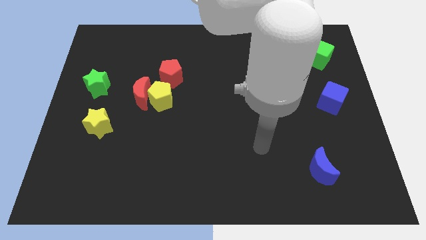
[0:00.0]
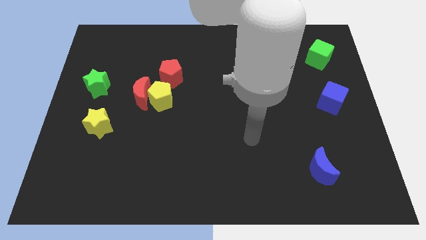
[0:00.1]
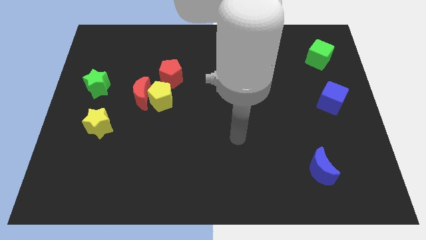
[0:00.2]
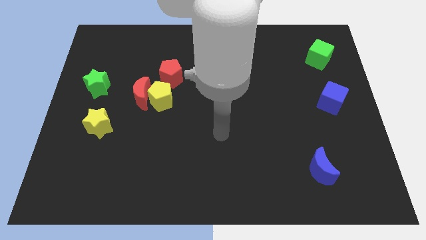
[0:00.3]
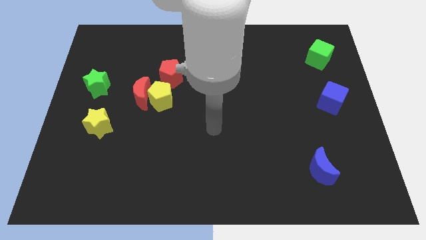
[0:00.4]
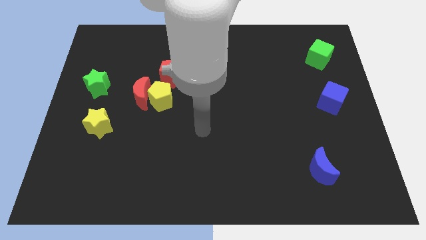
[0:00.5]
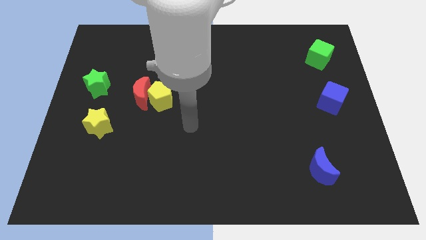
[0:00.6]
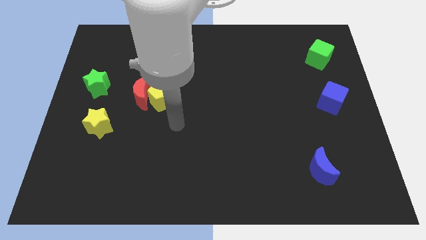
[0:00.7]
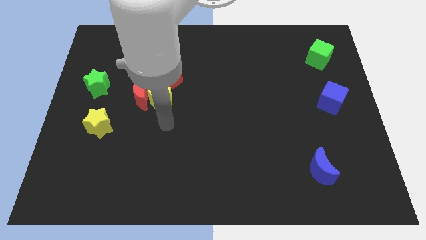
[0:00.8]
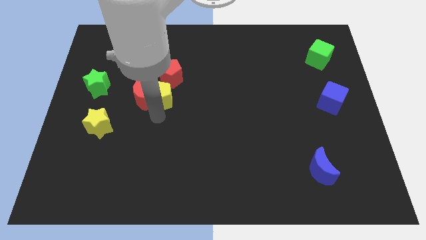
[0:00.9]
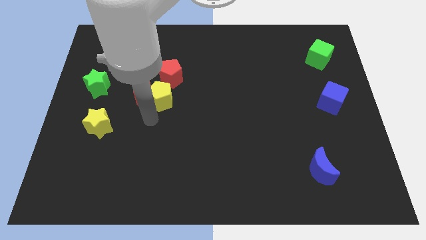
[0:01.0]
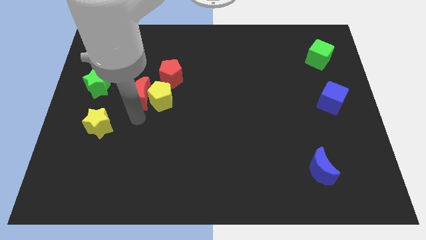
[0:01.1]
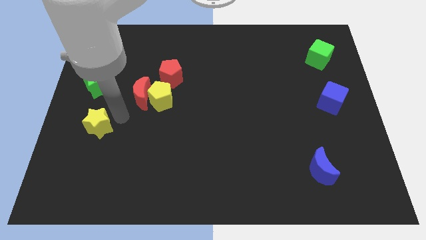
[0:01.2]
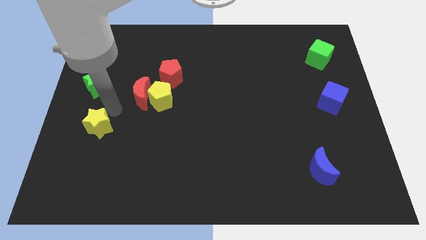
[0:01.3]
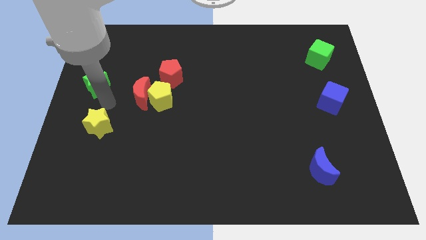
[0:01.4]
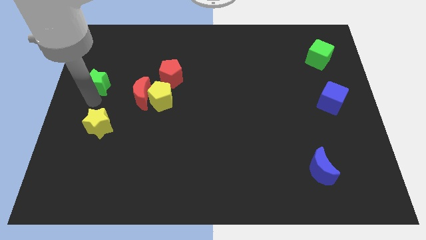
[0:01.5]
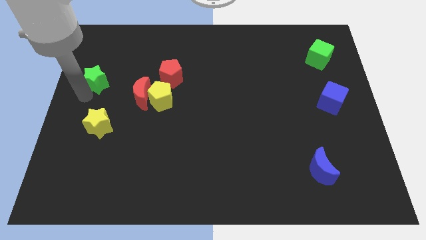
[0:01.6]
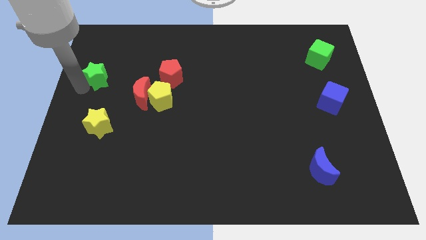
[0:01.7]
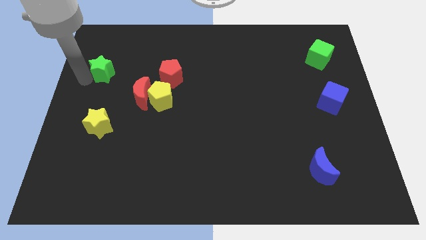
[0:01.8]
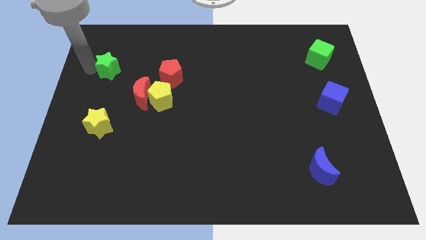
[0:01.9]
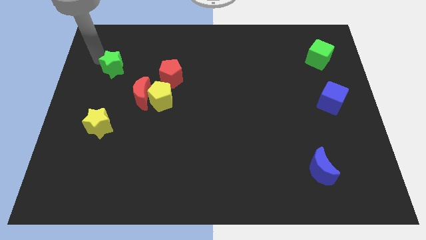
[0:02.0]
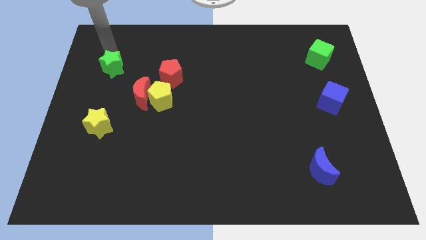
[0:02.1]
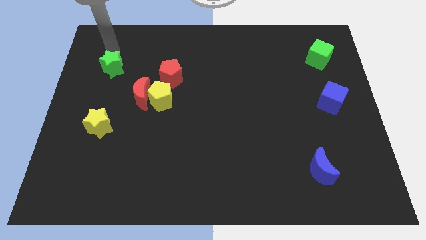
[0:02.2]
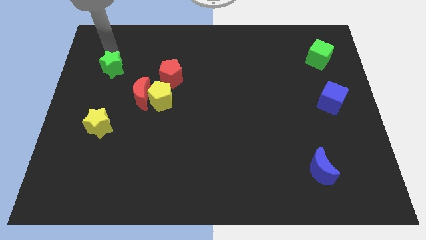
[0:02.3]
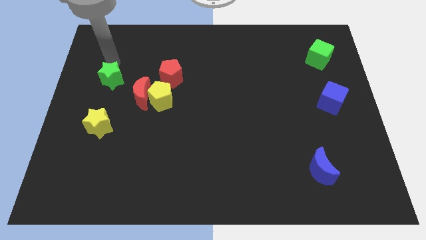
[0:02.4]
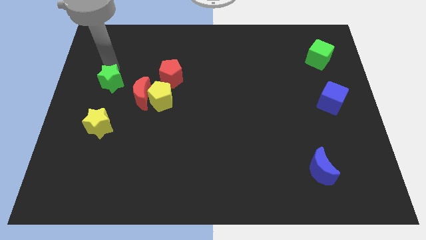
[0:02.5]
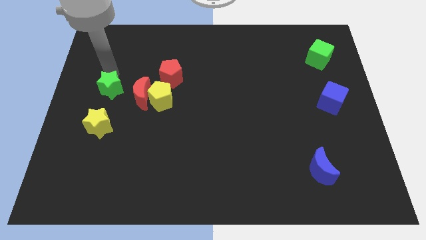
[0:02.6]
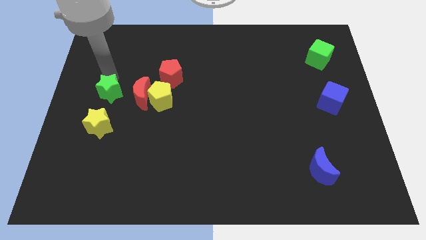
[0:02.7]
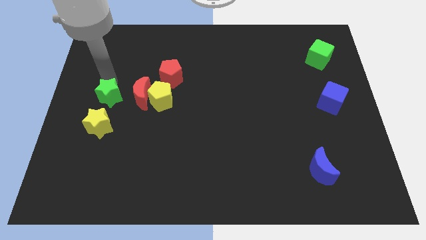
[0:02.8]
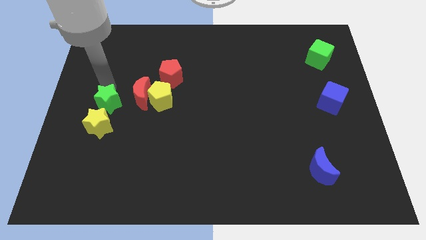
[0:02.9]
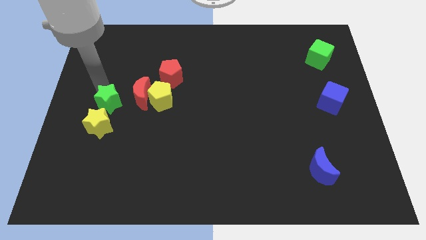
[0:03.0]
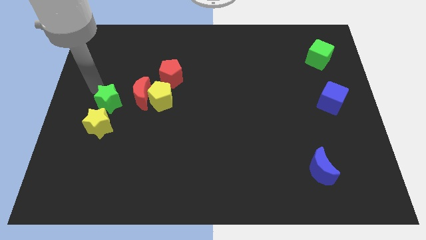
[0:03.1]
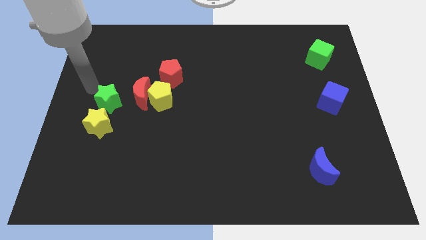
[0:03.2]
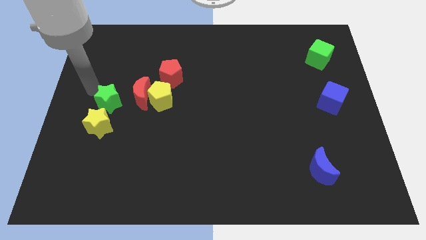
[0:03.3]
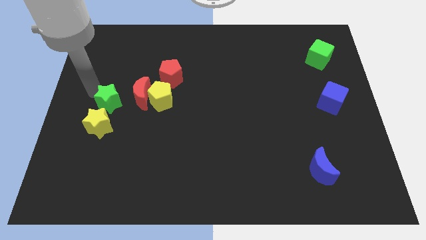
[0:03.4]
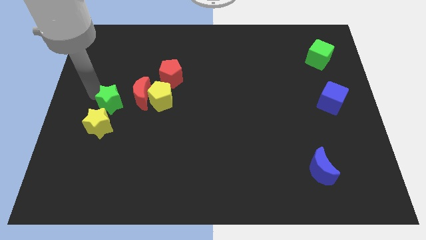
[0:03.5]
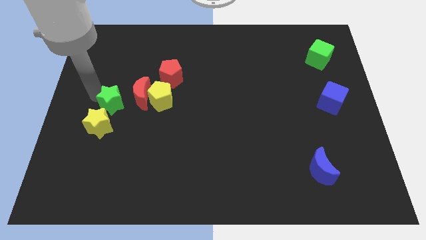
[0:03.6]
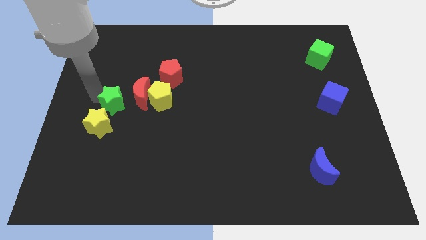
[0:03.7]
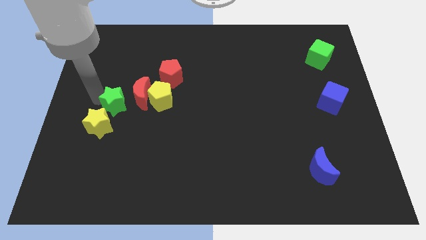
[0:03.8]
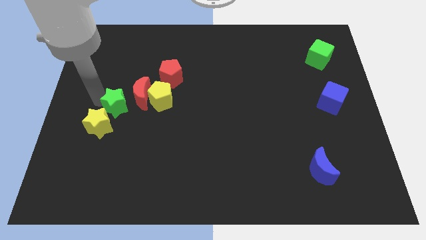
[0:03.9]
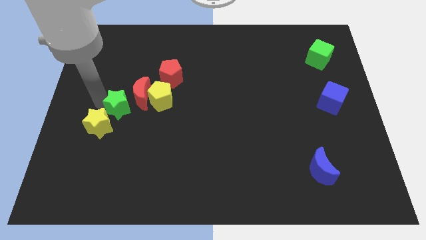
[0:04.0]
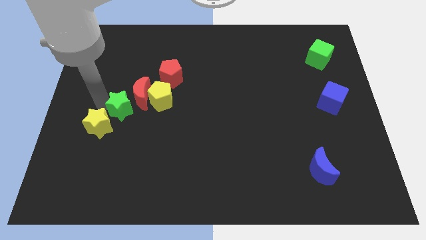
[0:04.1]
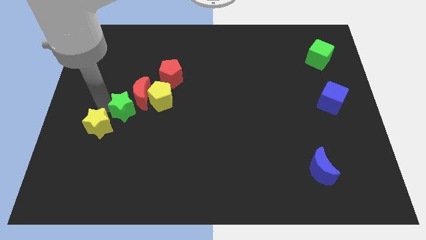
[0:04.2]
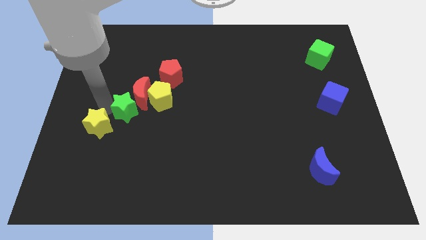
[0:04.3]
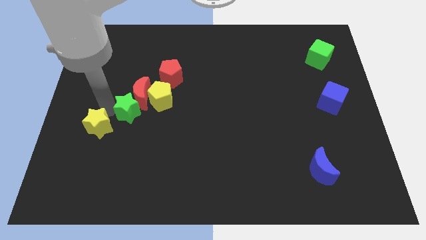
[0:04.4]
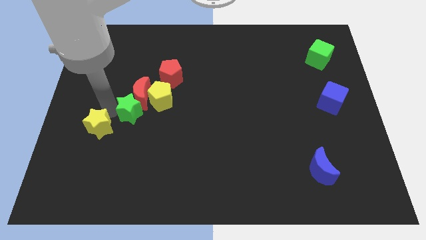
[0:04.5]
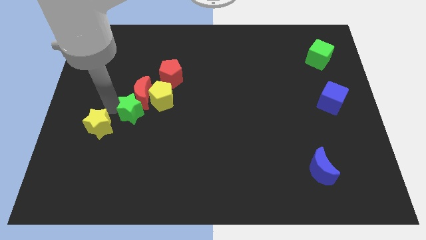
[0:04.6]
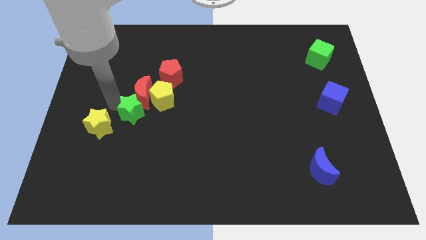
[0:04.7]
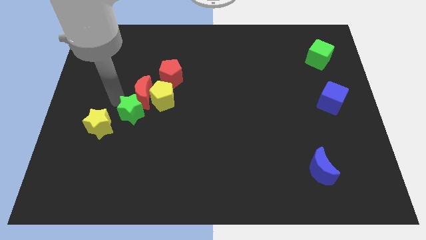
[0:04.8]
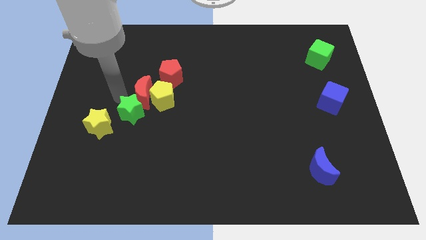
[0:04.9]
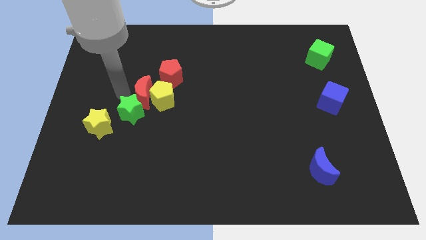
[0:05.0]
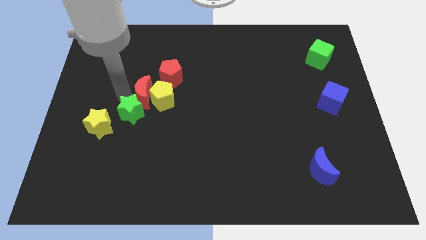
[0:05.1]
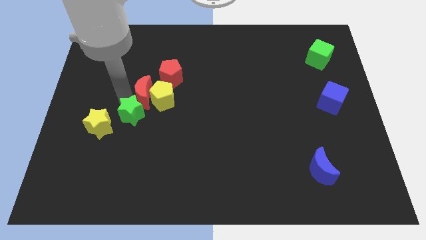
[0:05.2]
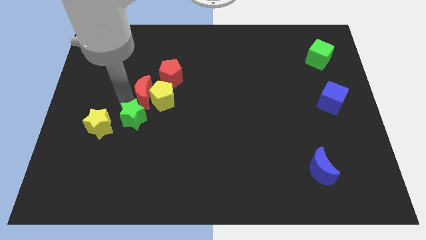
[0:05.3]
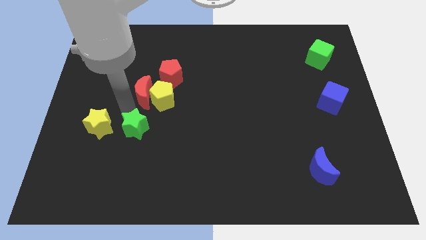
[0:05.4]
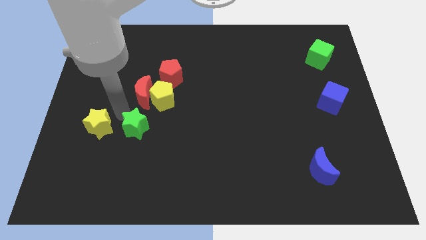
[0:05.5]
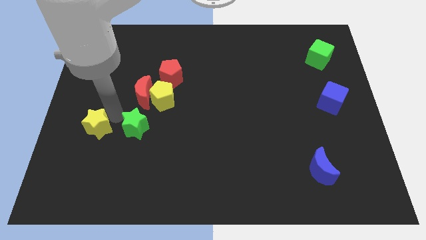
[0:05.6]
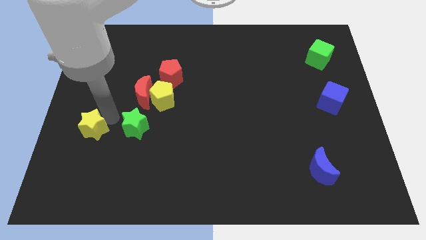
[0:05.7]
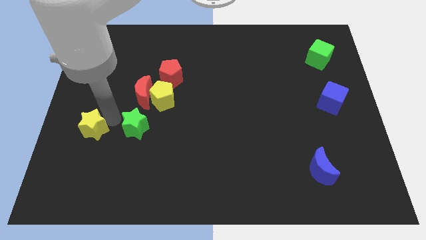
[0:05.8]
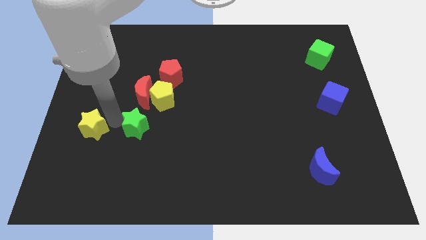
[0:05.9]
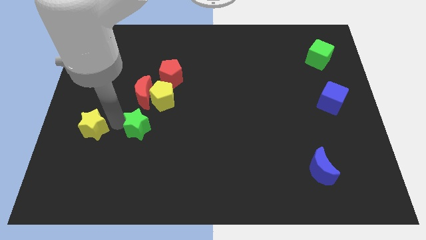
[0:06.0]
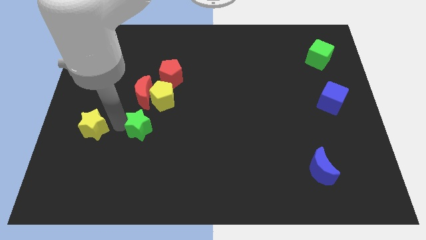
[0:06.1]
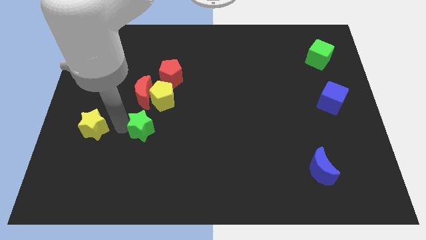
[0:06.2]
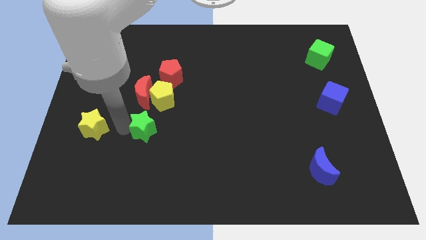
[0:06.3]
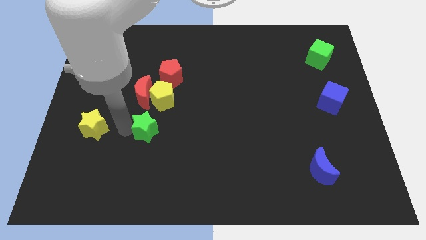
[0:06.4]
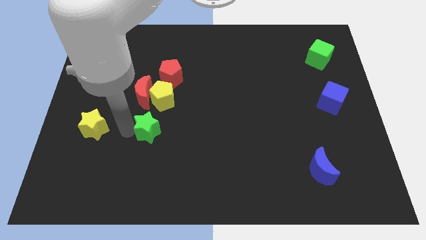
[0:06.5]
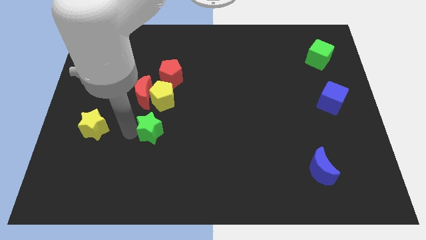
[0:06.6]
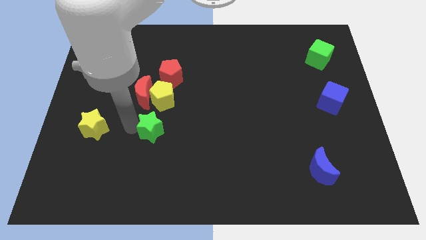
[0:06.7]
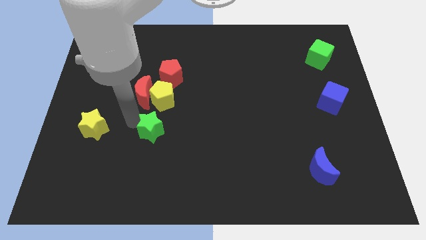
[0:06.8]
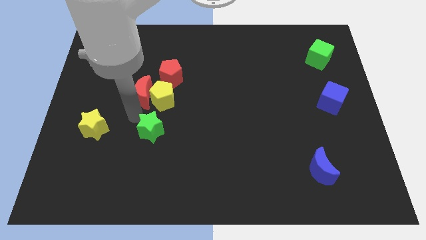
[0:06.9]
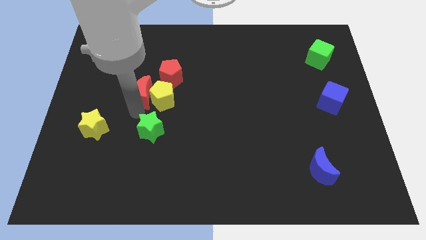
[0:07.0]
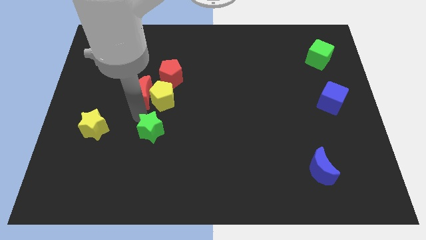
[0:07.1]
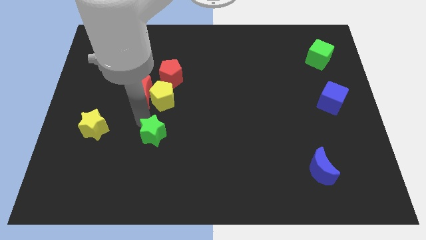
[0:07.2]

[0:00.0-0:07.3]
slide the green star downwards and right

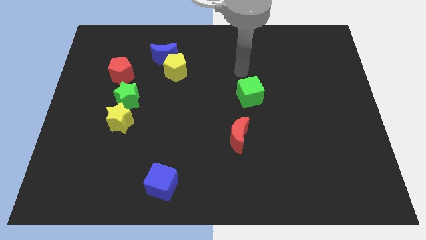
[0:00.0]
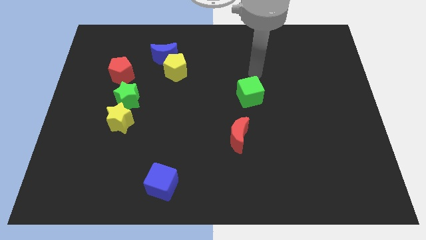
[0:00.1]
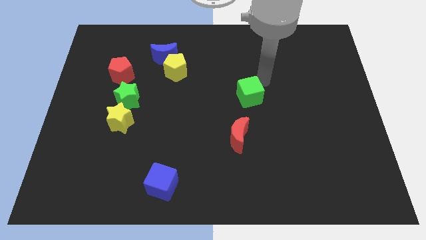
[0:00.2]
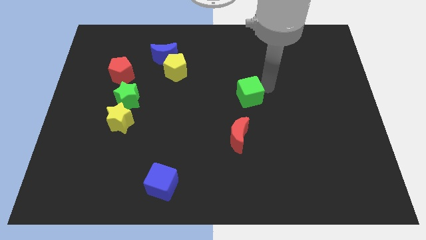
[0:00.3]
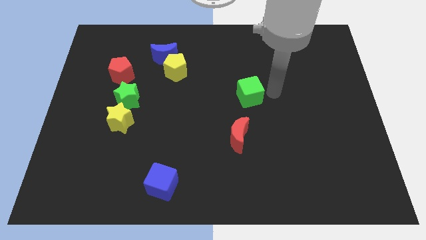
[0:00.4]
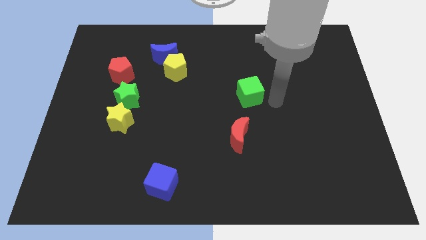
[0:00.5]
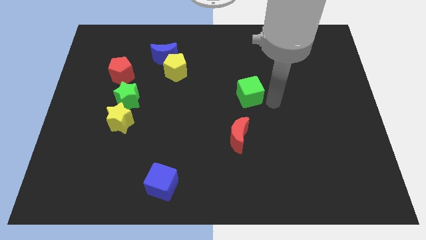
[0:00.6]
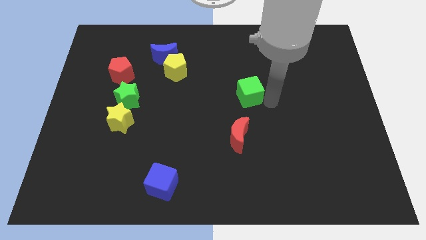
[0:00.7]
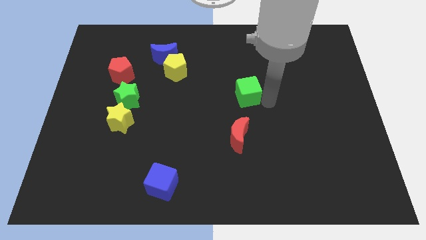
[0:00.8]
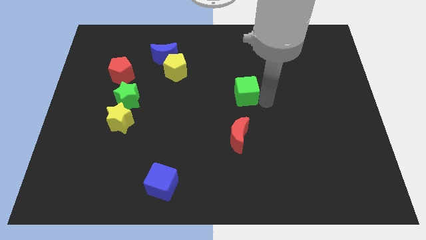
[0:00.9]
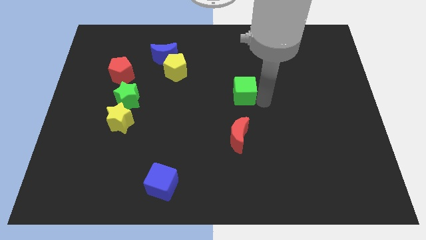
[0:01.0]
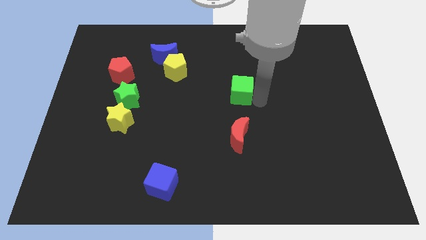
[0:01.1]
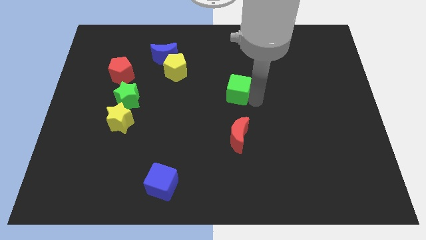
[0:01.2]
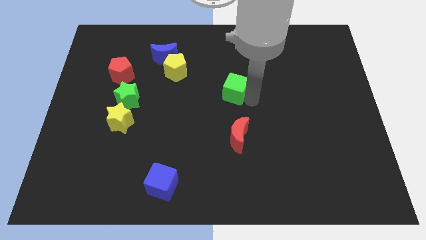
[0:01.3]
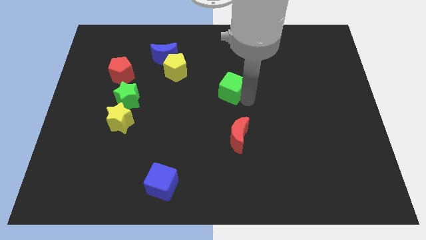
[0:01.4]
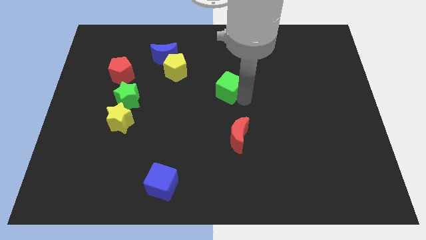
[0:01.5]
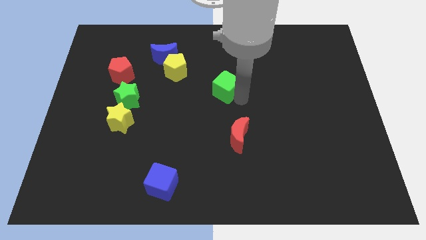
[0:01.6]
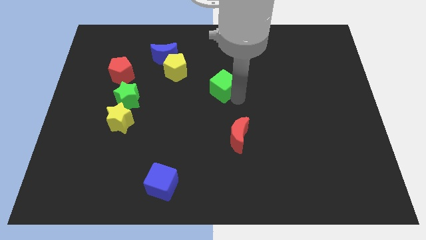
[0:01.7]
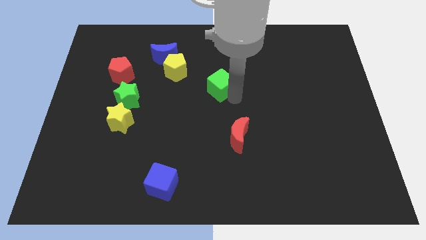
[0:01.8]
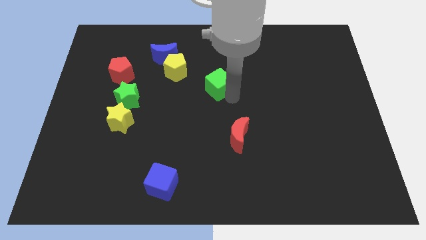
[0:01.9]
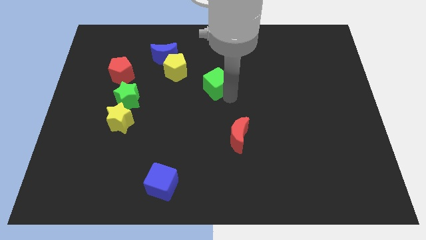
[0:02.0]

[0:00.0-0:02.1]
move the green cube somewhat up and then left
